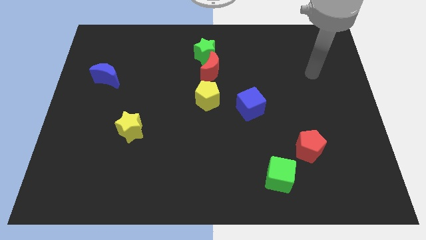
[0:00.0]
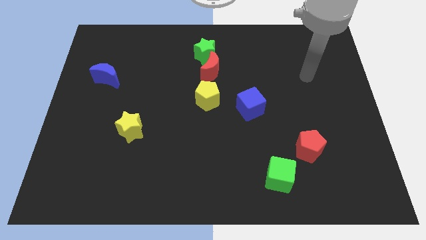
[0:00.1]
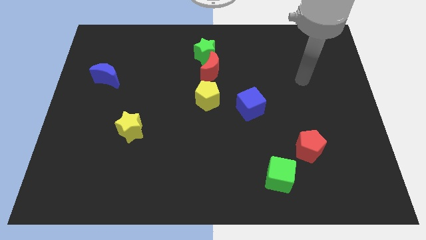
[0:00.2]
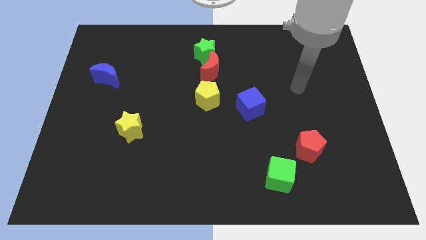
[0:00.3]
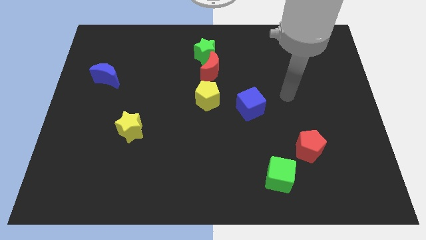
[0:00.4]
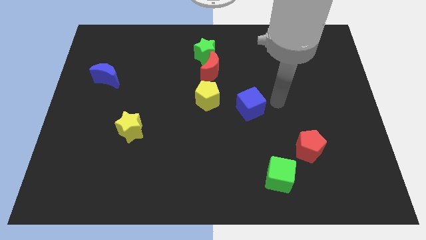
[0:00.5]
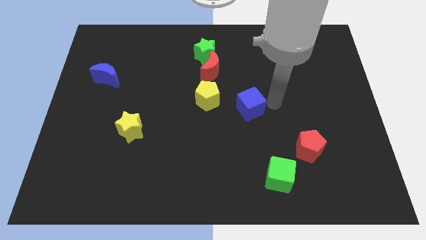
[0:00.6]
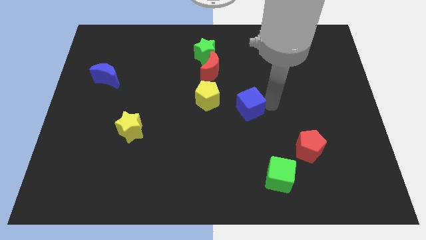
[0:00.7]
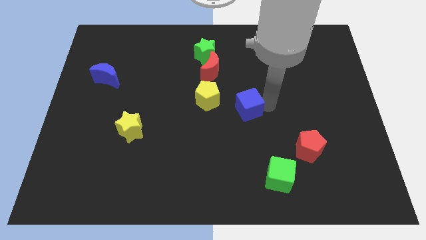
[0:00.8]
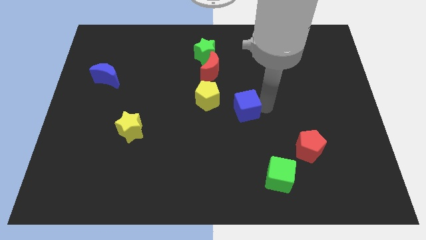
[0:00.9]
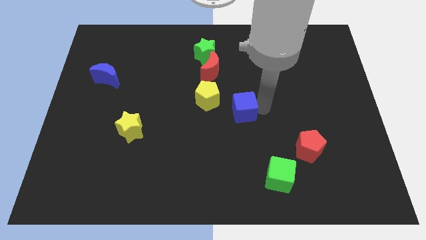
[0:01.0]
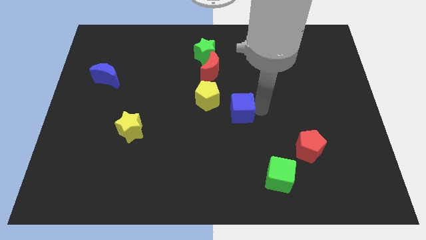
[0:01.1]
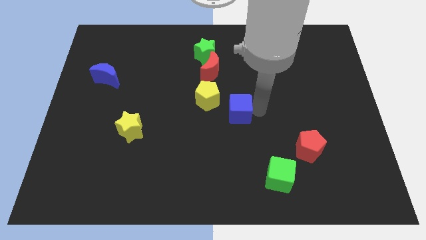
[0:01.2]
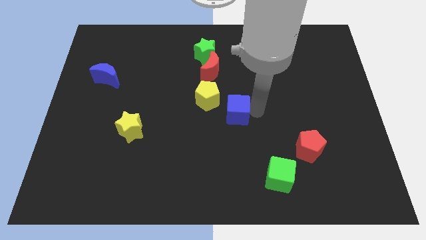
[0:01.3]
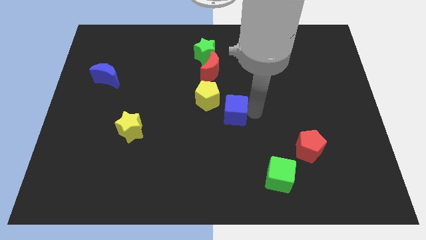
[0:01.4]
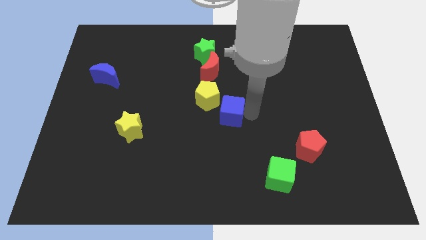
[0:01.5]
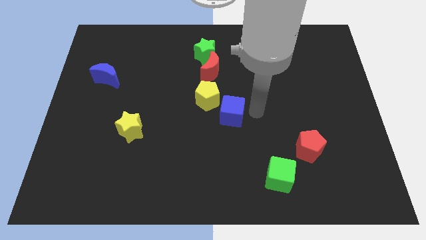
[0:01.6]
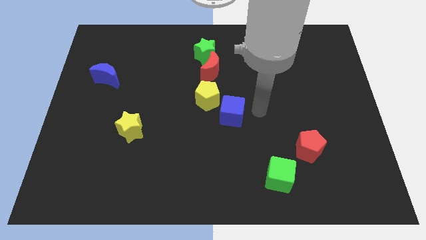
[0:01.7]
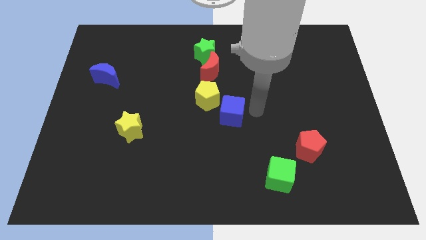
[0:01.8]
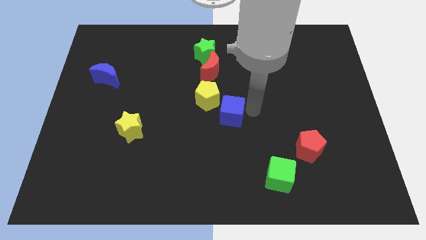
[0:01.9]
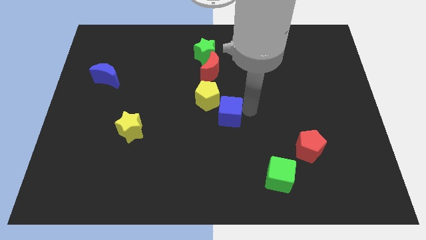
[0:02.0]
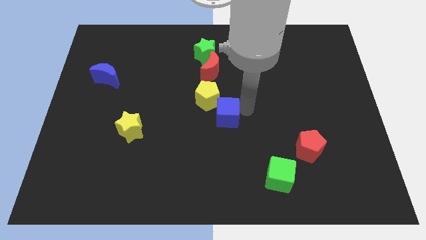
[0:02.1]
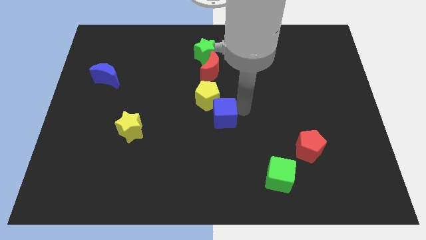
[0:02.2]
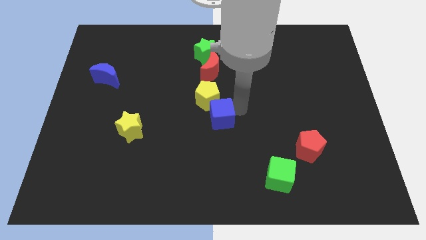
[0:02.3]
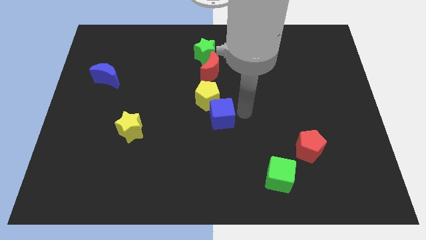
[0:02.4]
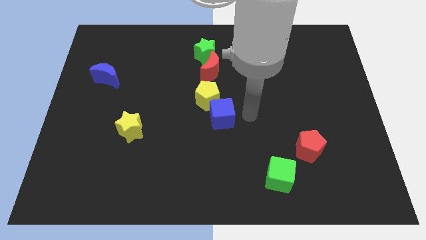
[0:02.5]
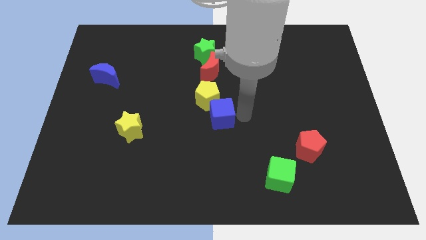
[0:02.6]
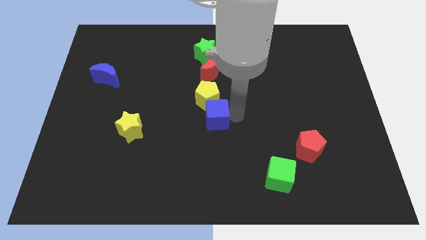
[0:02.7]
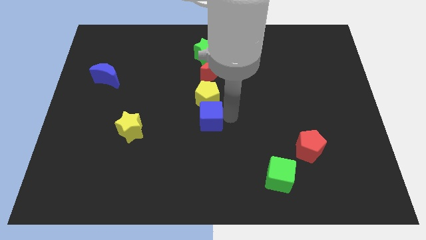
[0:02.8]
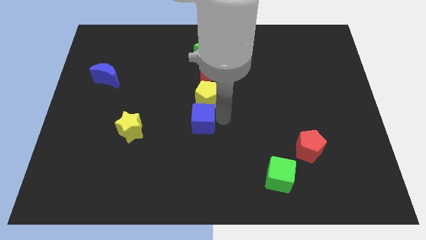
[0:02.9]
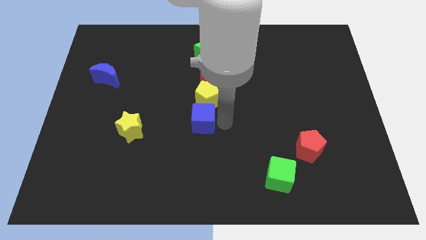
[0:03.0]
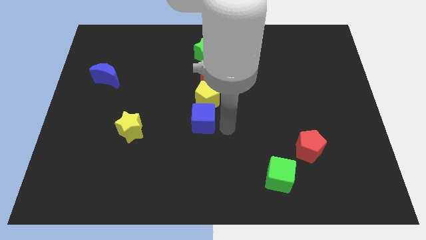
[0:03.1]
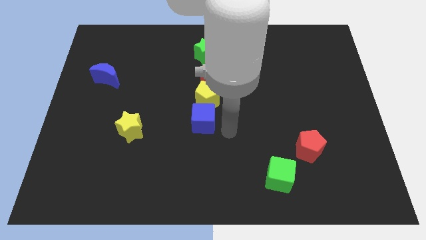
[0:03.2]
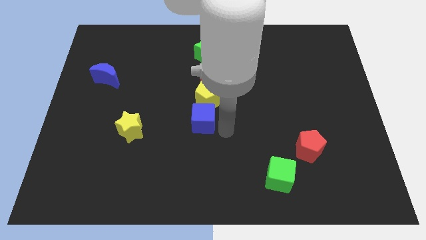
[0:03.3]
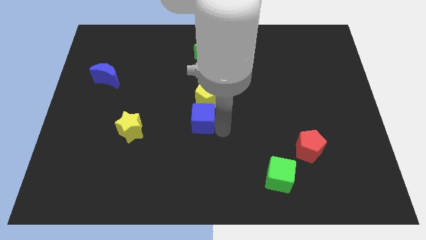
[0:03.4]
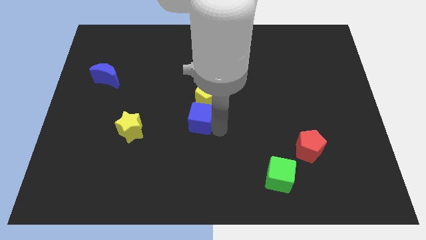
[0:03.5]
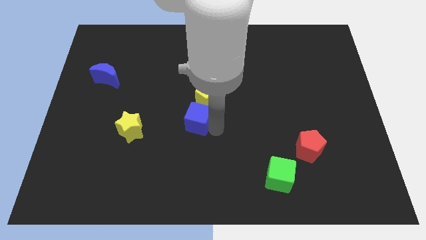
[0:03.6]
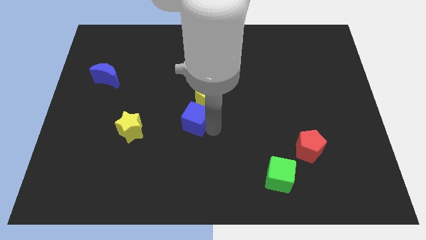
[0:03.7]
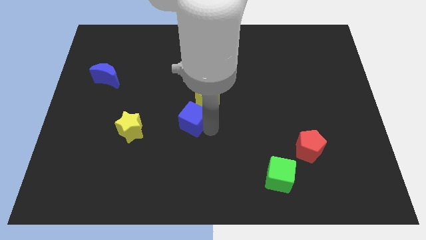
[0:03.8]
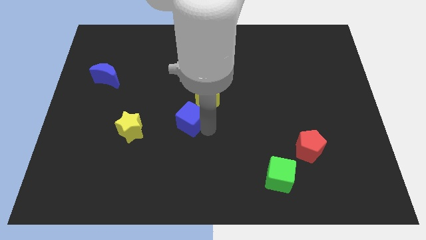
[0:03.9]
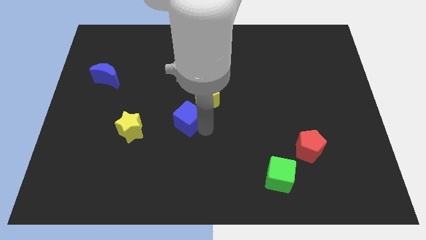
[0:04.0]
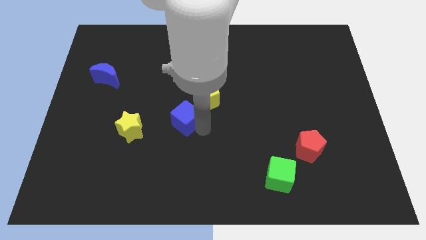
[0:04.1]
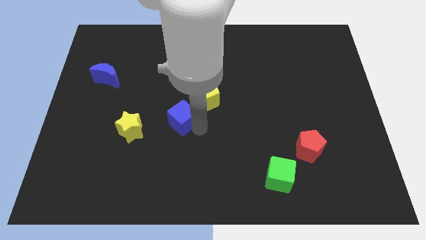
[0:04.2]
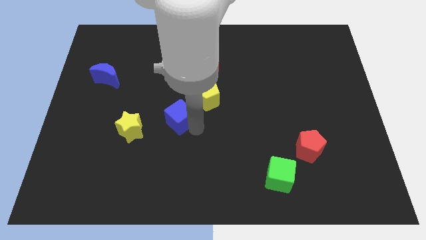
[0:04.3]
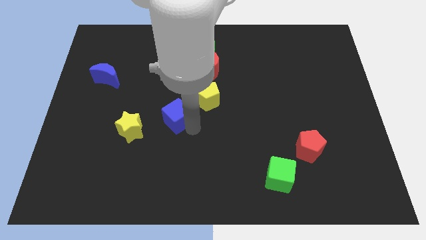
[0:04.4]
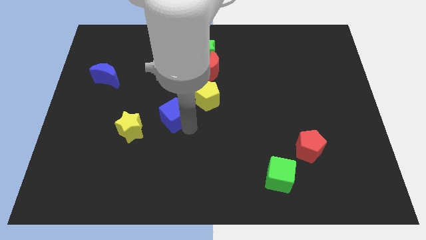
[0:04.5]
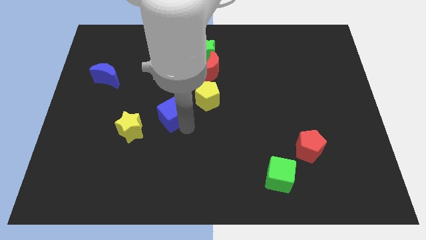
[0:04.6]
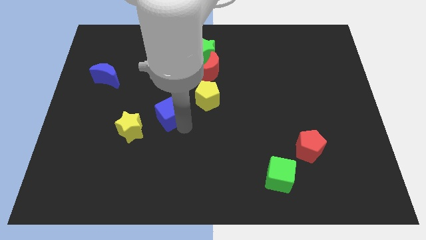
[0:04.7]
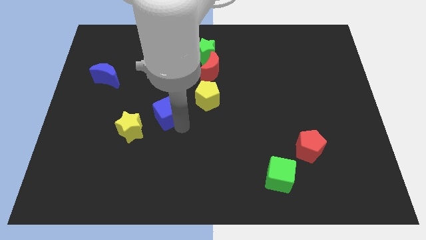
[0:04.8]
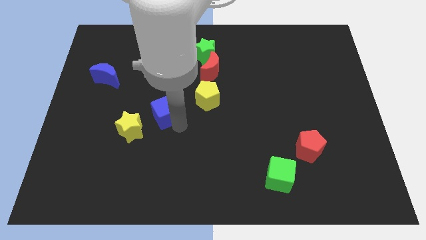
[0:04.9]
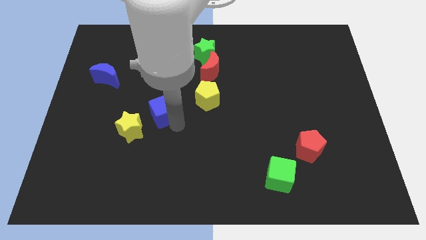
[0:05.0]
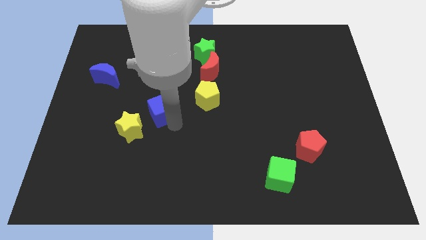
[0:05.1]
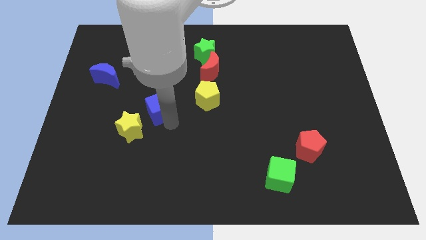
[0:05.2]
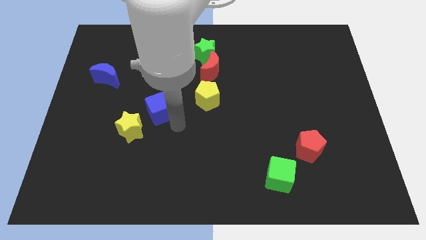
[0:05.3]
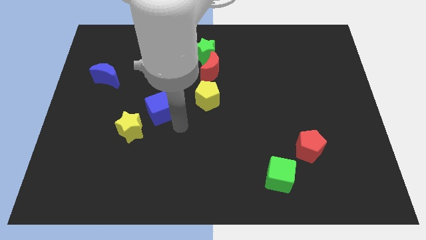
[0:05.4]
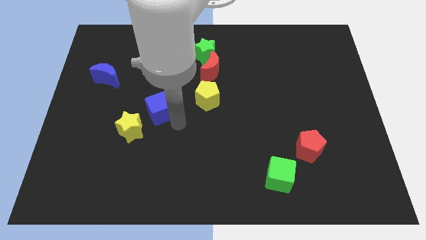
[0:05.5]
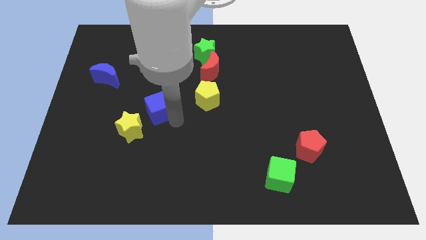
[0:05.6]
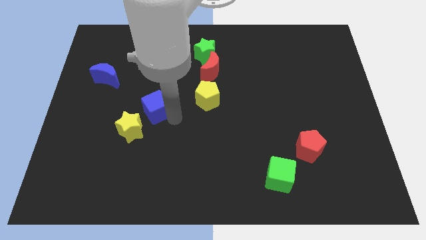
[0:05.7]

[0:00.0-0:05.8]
push the blue cube to the top of the yellow star

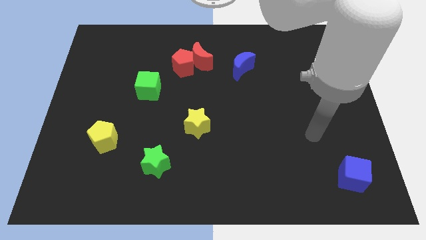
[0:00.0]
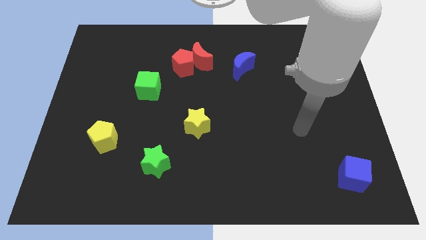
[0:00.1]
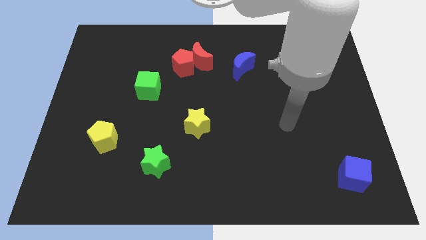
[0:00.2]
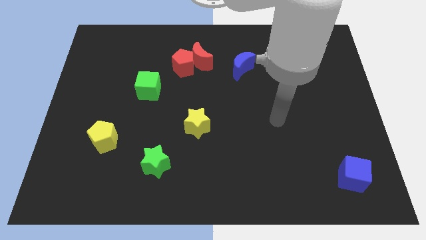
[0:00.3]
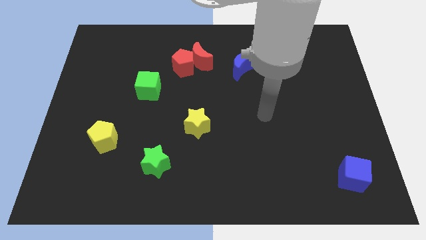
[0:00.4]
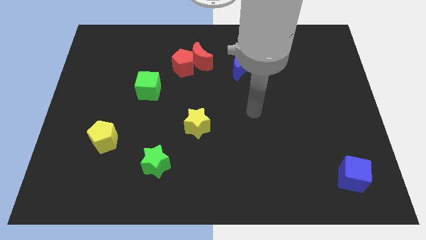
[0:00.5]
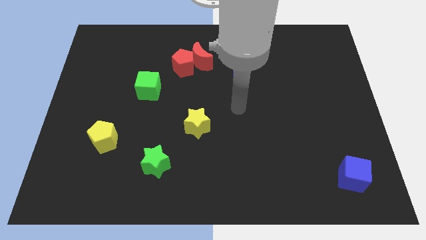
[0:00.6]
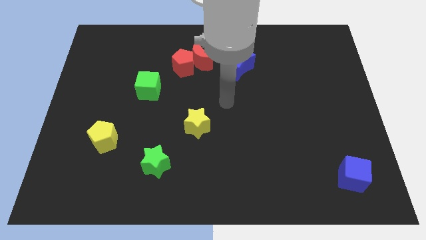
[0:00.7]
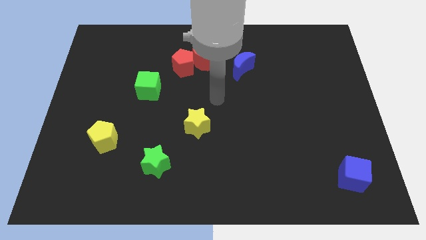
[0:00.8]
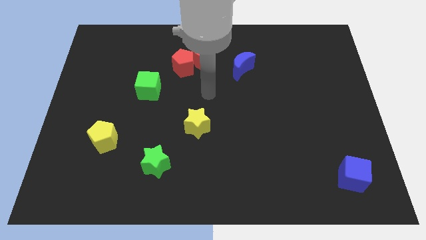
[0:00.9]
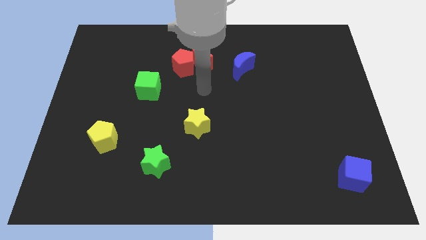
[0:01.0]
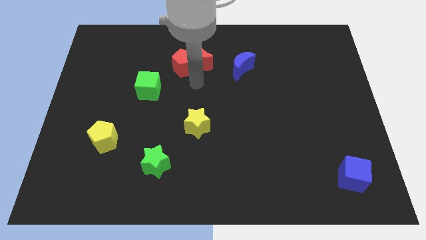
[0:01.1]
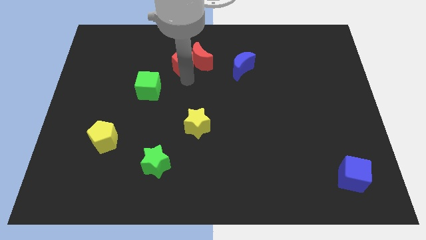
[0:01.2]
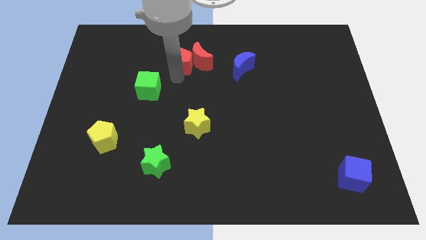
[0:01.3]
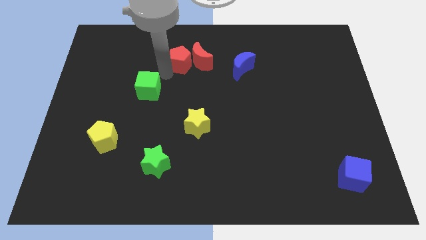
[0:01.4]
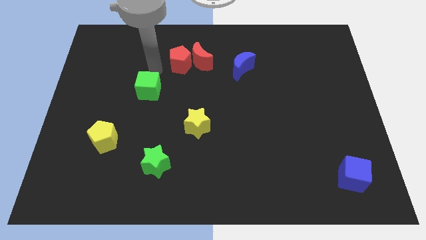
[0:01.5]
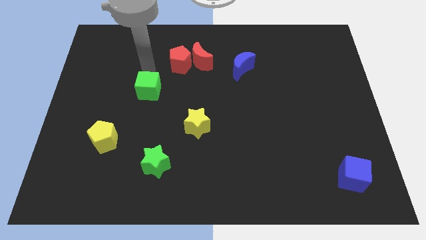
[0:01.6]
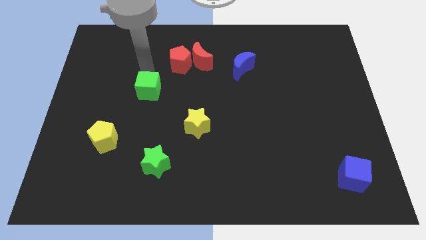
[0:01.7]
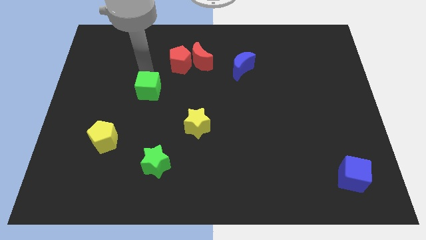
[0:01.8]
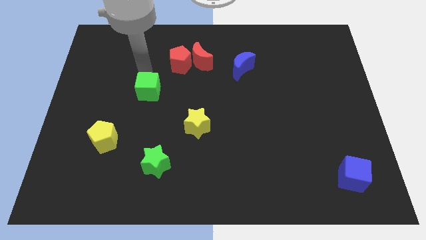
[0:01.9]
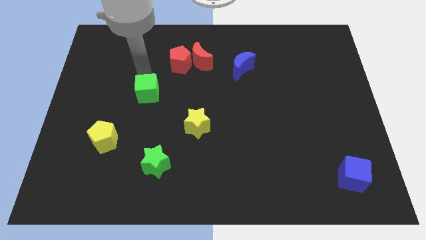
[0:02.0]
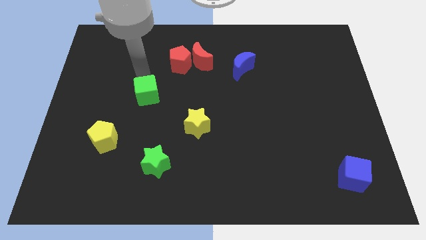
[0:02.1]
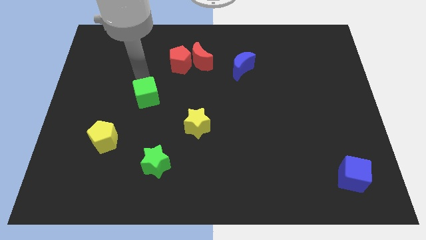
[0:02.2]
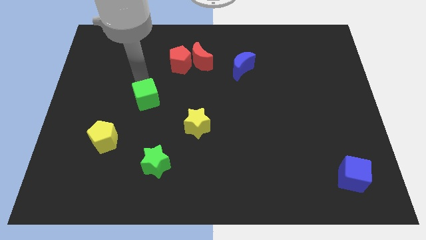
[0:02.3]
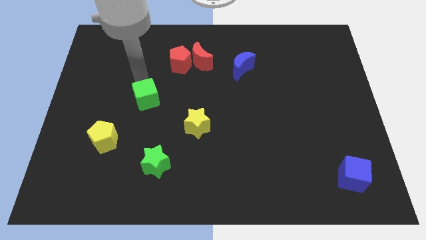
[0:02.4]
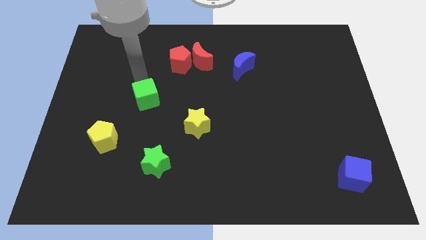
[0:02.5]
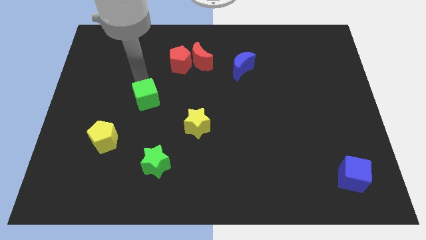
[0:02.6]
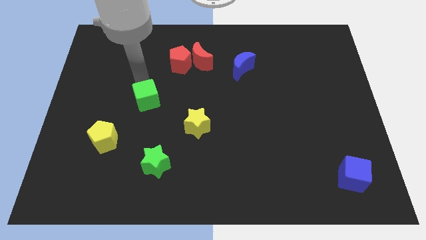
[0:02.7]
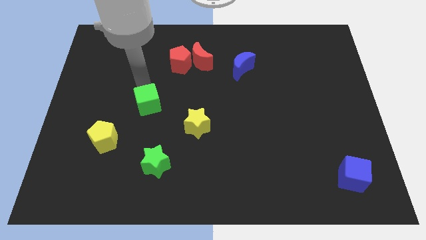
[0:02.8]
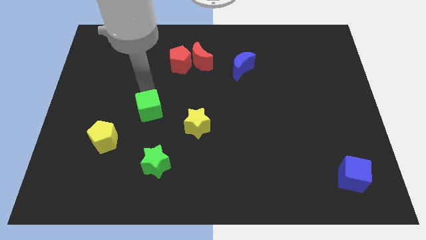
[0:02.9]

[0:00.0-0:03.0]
push the green cube to the top right side of the yellow pentagon
